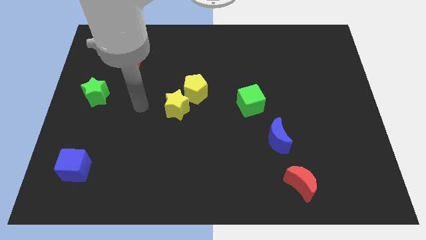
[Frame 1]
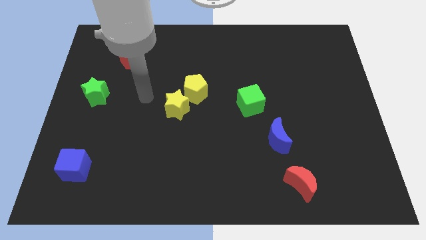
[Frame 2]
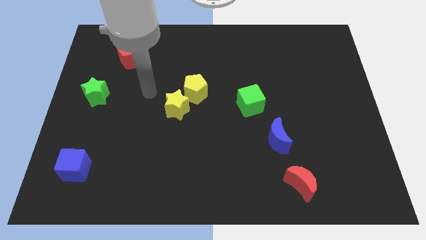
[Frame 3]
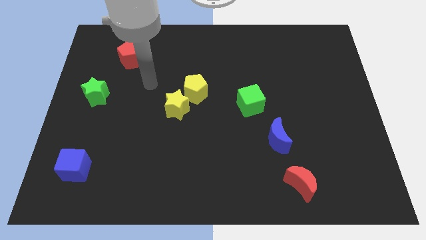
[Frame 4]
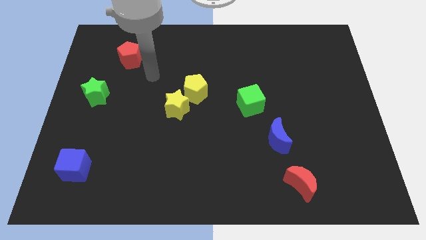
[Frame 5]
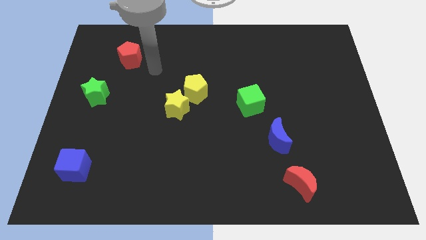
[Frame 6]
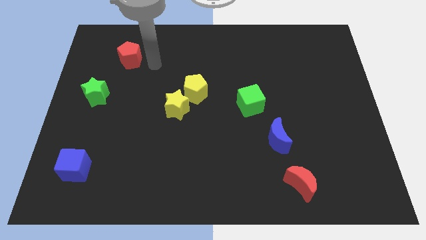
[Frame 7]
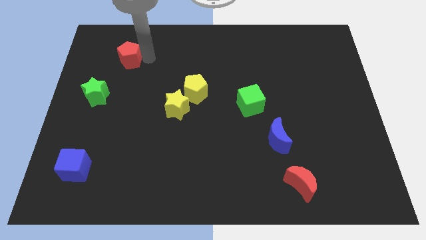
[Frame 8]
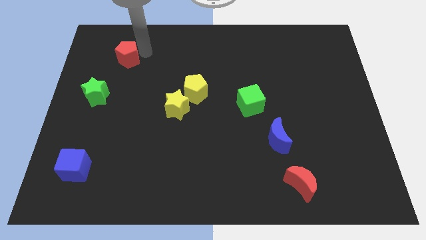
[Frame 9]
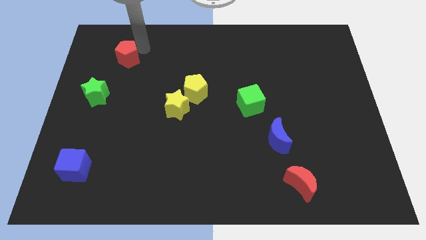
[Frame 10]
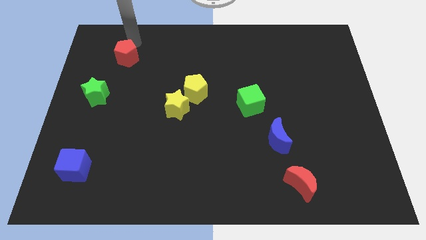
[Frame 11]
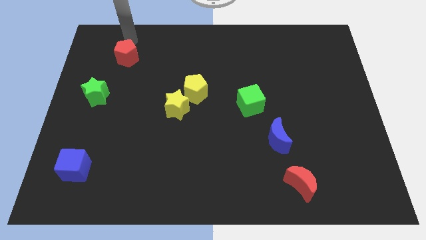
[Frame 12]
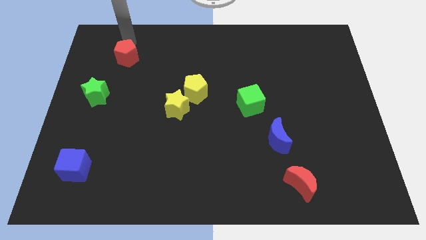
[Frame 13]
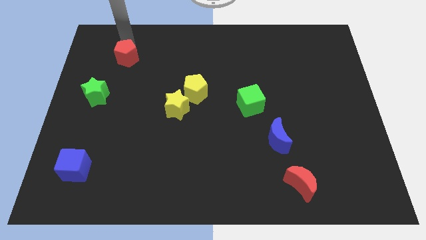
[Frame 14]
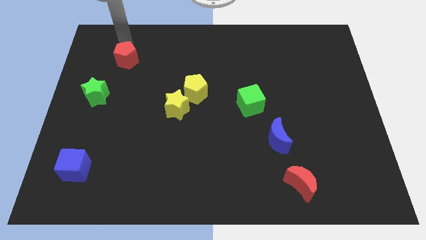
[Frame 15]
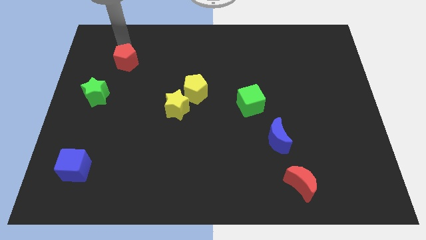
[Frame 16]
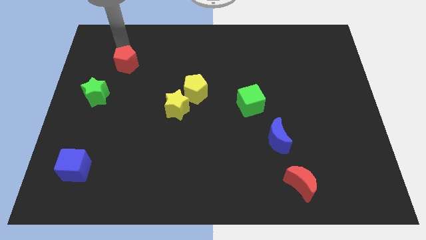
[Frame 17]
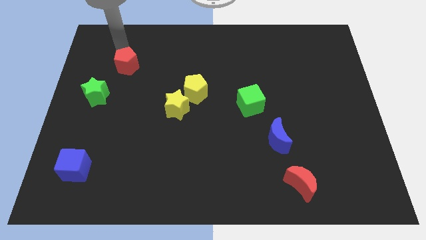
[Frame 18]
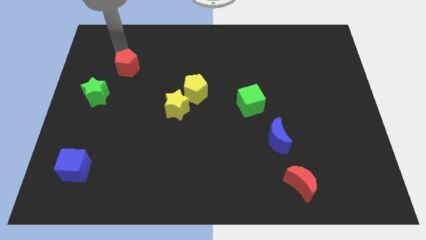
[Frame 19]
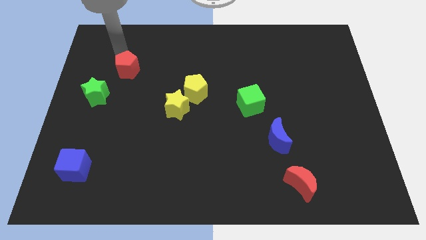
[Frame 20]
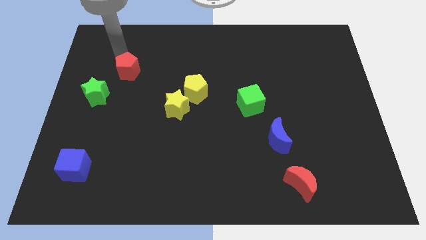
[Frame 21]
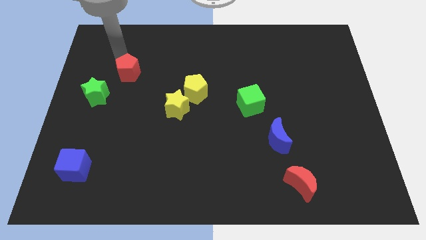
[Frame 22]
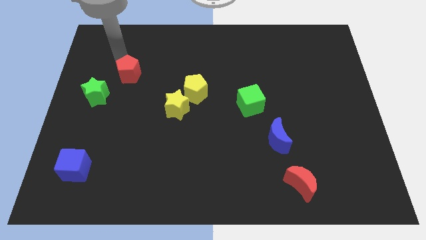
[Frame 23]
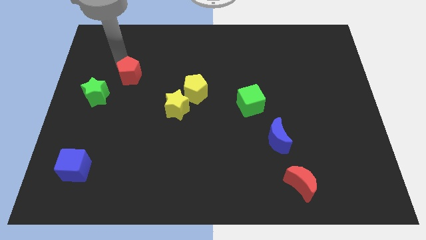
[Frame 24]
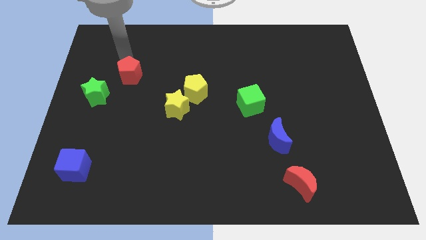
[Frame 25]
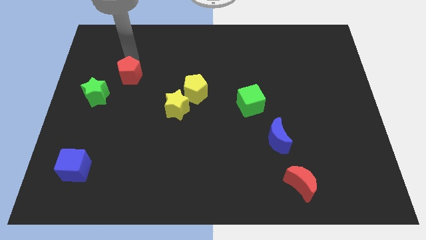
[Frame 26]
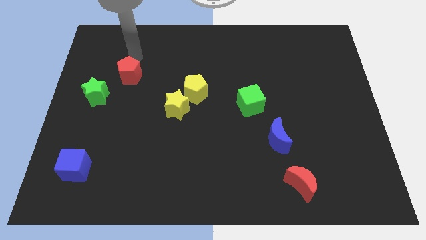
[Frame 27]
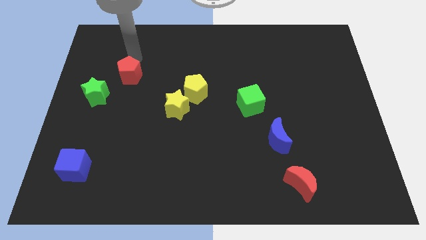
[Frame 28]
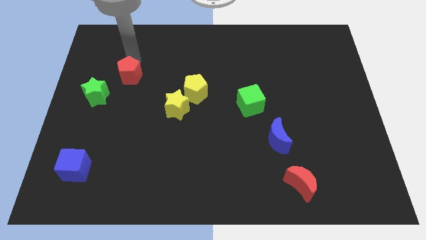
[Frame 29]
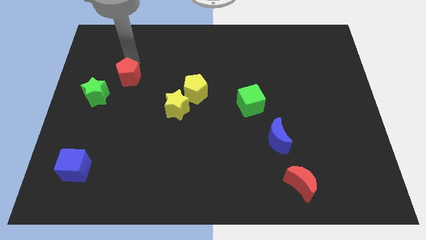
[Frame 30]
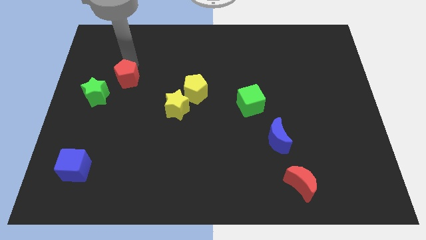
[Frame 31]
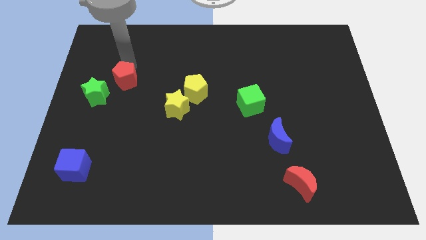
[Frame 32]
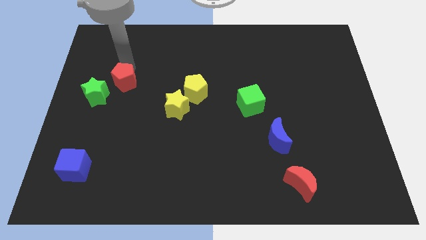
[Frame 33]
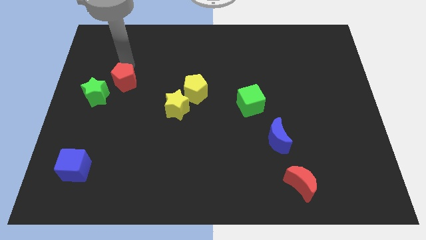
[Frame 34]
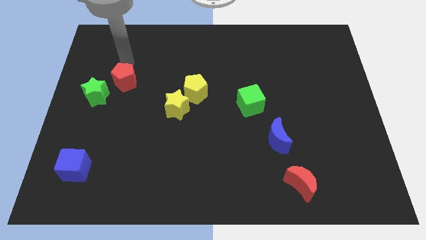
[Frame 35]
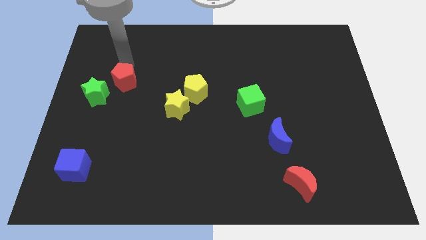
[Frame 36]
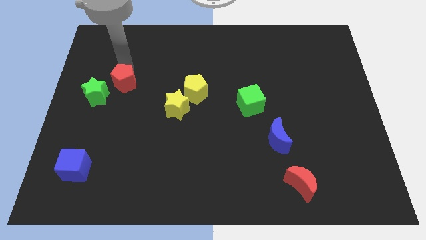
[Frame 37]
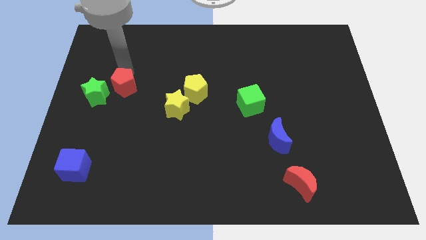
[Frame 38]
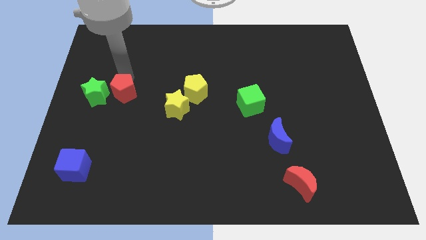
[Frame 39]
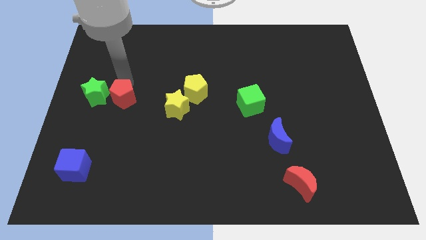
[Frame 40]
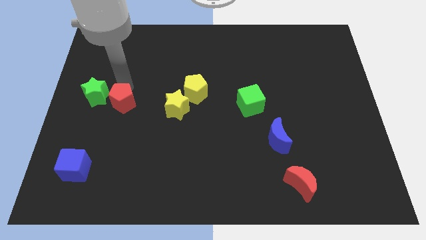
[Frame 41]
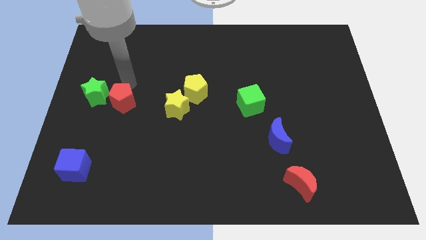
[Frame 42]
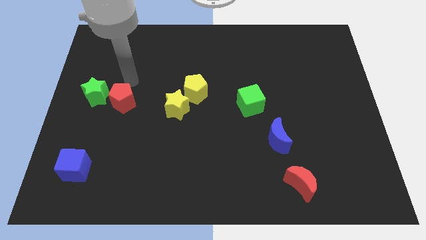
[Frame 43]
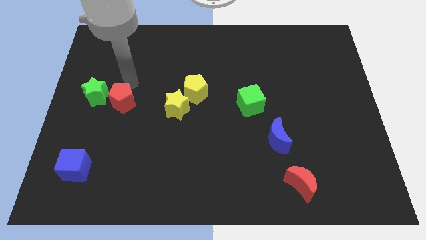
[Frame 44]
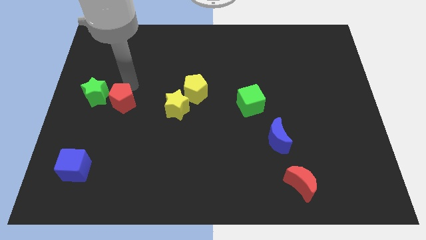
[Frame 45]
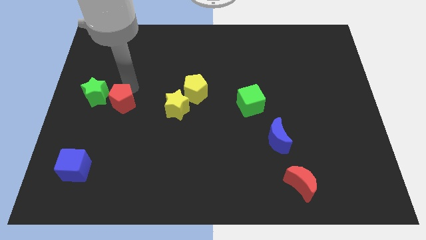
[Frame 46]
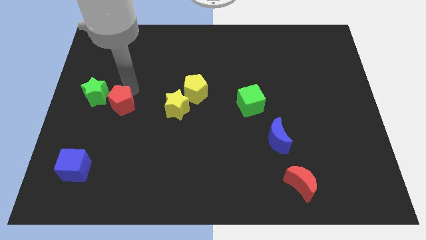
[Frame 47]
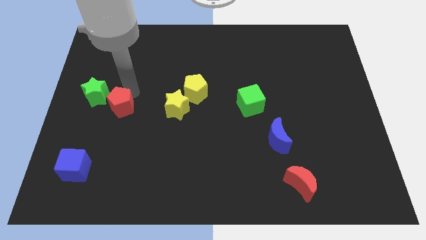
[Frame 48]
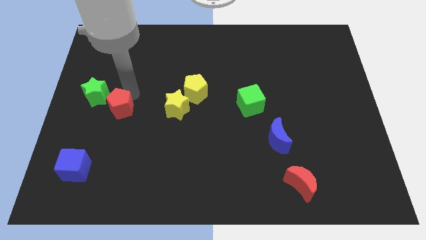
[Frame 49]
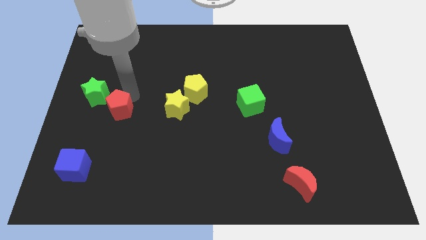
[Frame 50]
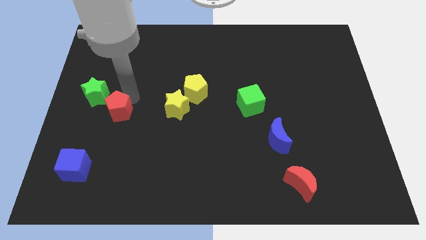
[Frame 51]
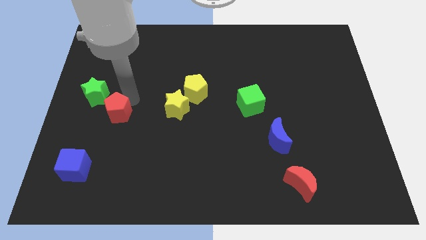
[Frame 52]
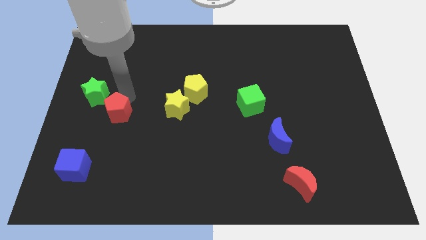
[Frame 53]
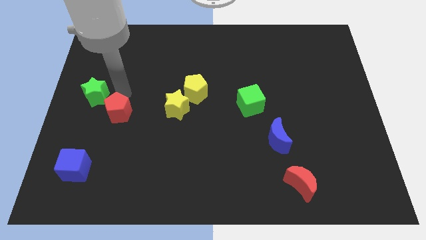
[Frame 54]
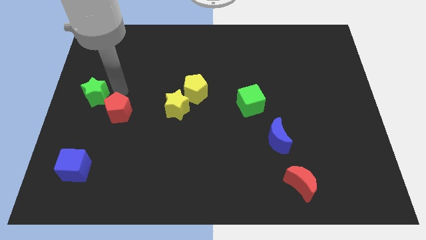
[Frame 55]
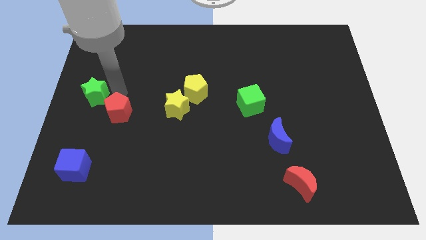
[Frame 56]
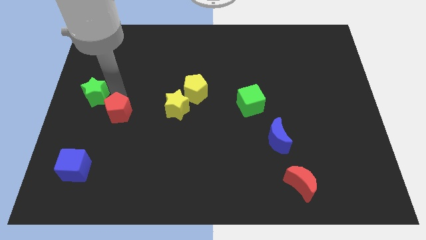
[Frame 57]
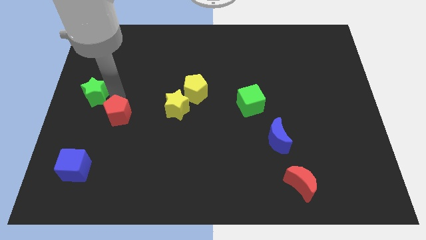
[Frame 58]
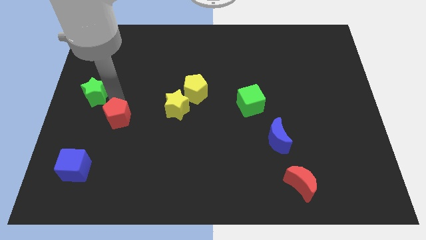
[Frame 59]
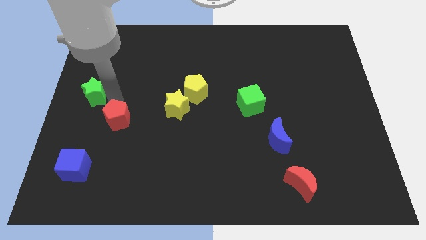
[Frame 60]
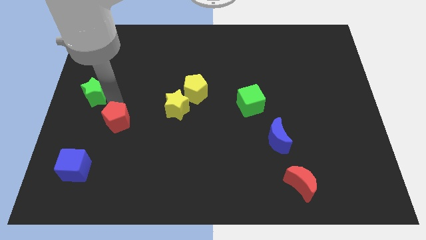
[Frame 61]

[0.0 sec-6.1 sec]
move the red pentagon down

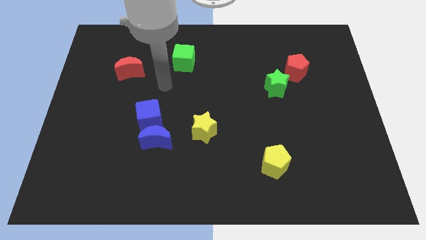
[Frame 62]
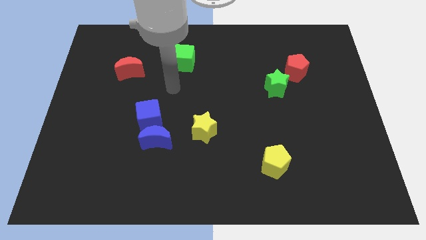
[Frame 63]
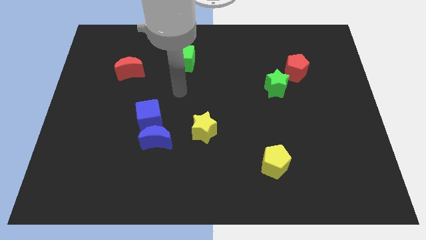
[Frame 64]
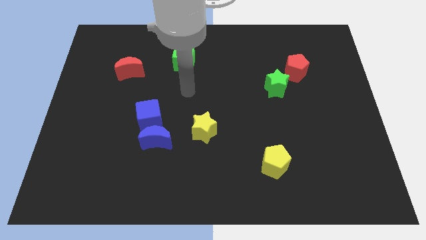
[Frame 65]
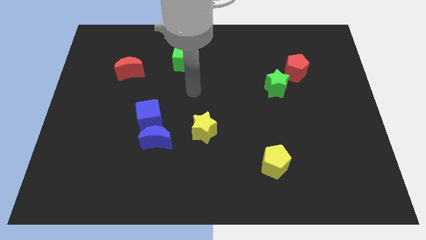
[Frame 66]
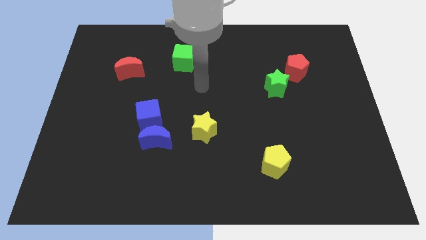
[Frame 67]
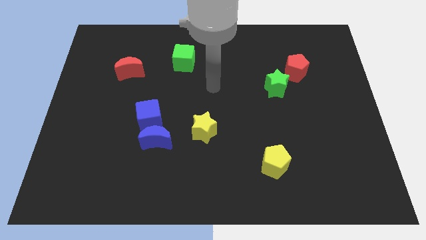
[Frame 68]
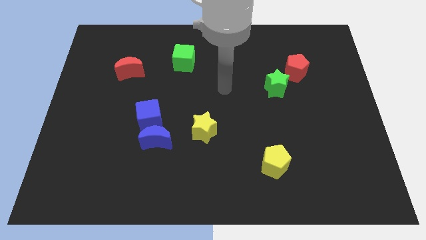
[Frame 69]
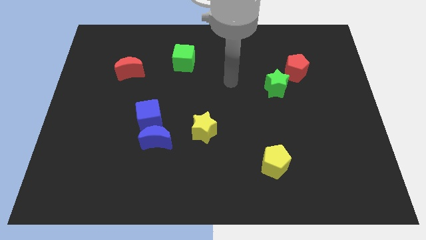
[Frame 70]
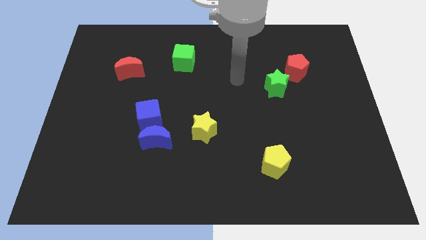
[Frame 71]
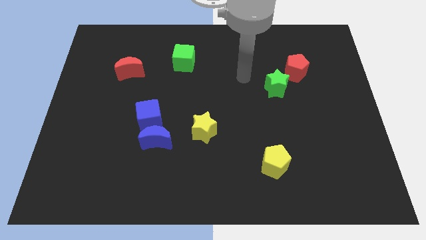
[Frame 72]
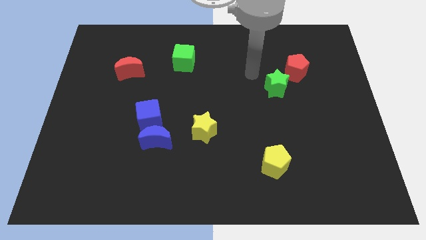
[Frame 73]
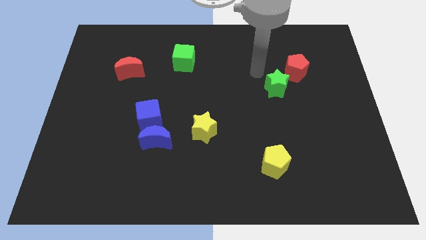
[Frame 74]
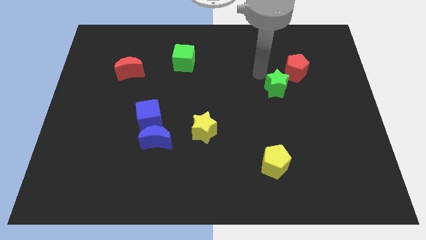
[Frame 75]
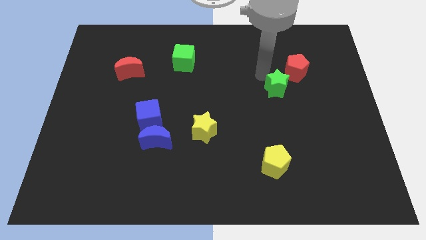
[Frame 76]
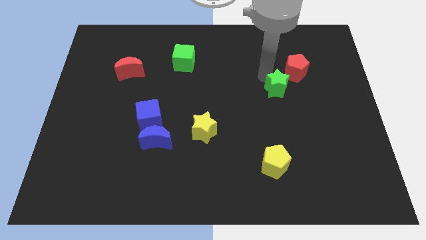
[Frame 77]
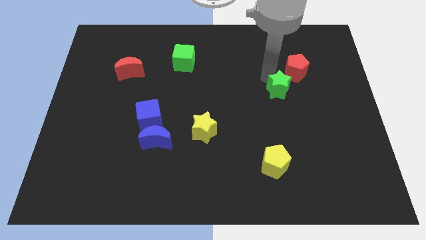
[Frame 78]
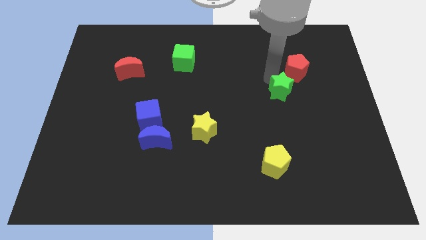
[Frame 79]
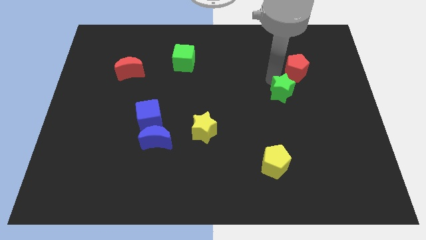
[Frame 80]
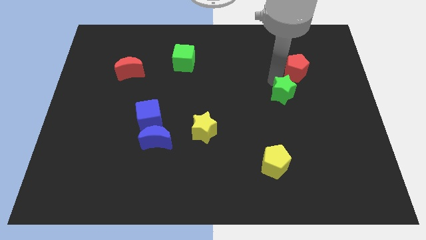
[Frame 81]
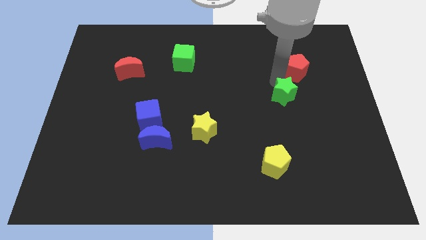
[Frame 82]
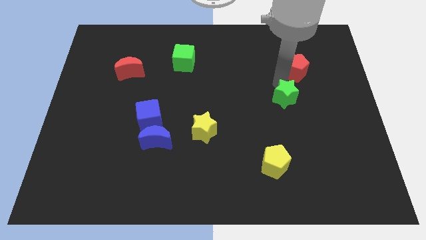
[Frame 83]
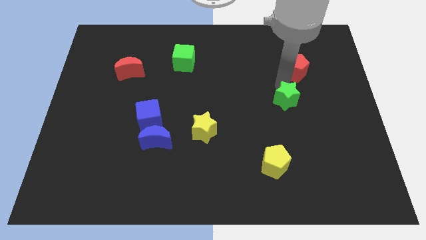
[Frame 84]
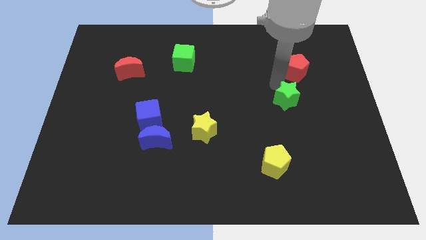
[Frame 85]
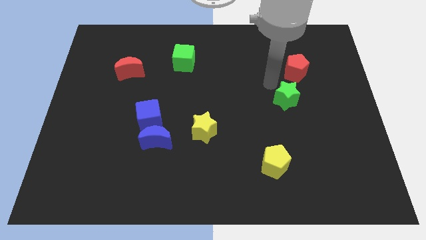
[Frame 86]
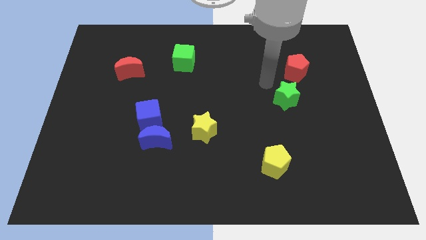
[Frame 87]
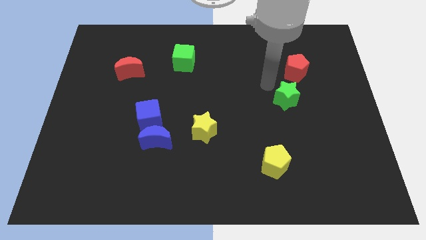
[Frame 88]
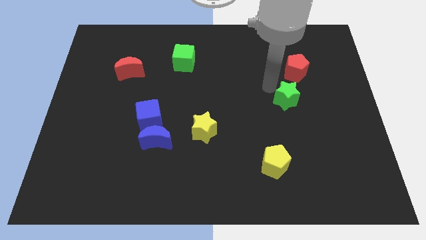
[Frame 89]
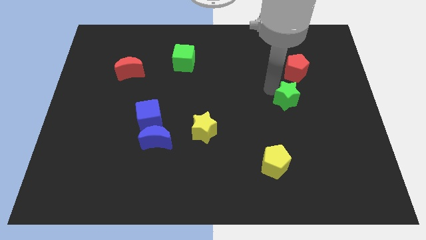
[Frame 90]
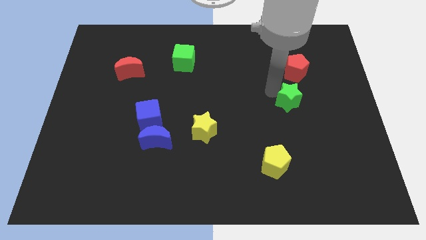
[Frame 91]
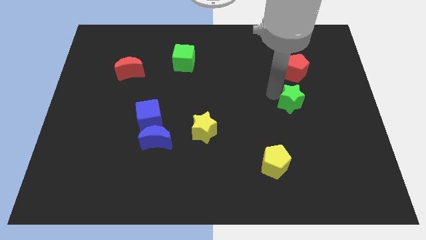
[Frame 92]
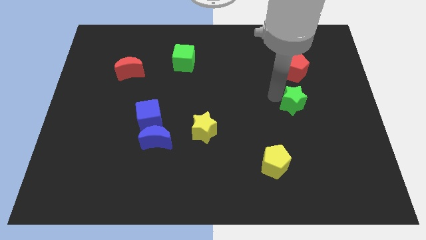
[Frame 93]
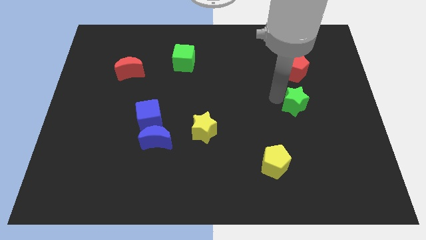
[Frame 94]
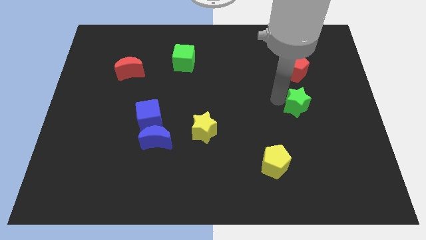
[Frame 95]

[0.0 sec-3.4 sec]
slightly move the green star diagonally down and to the right
